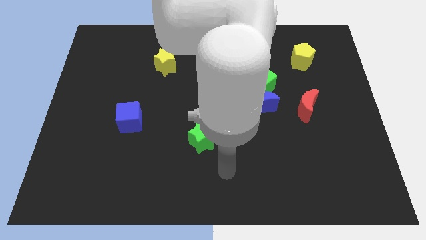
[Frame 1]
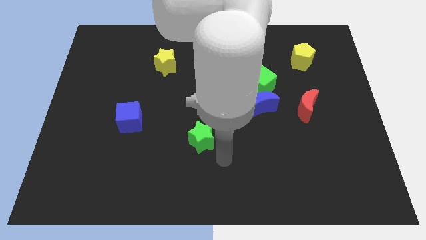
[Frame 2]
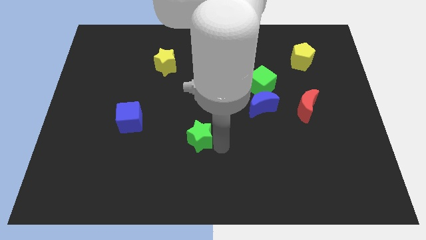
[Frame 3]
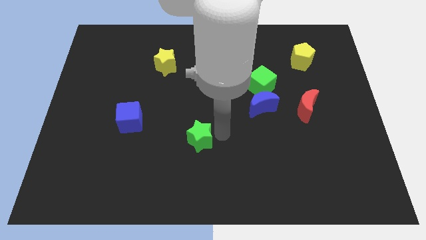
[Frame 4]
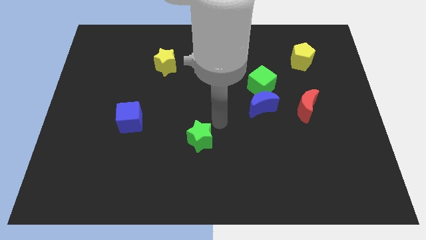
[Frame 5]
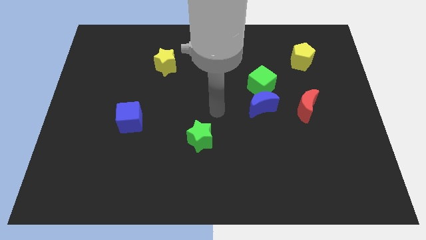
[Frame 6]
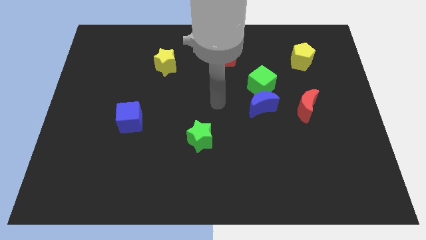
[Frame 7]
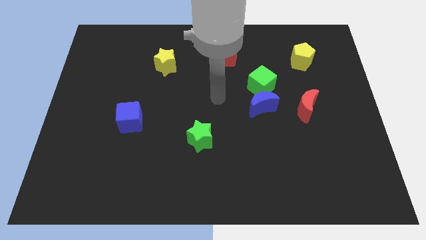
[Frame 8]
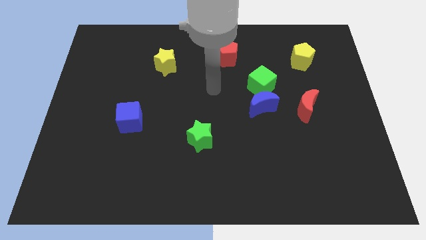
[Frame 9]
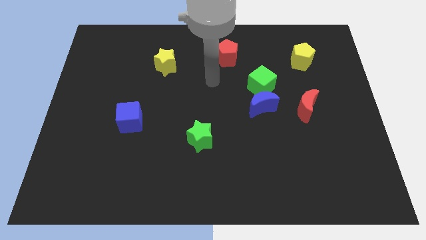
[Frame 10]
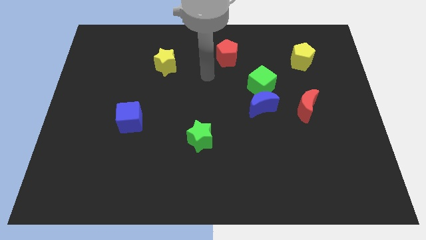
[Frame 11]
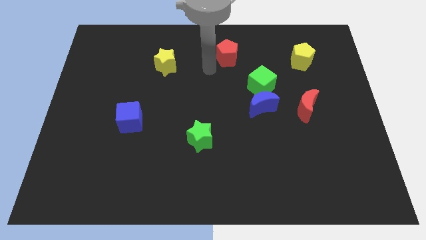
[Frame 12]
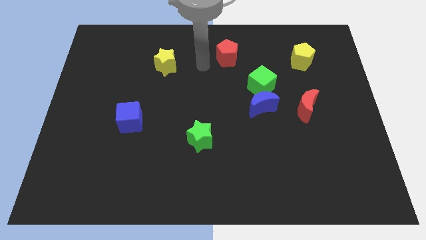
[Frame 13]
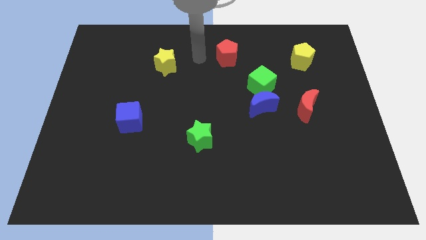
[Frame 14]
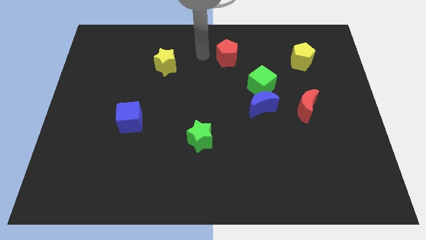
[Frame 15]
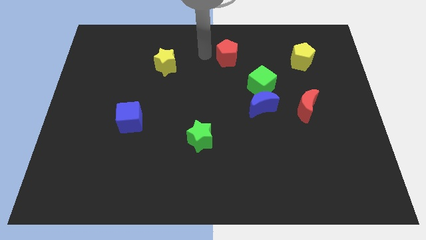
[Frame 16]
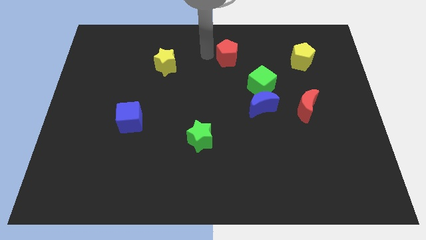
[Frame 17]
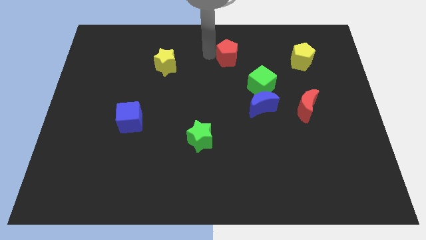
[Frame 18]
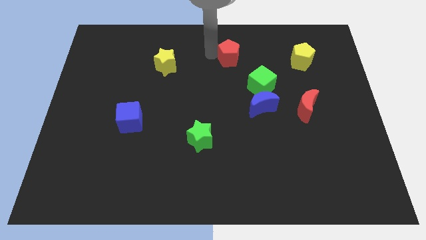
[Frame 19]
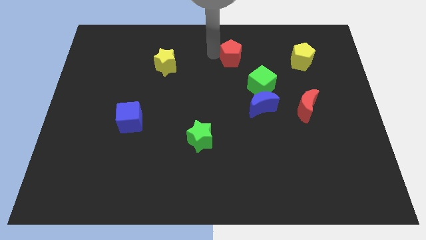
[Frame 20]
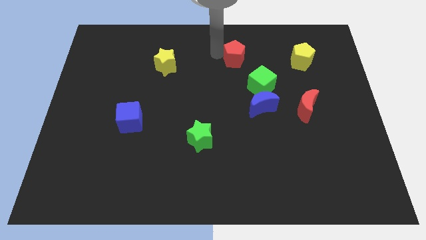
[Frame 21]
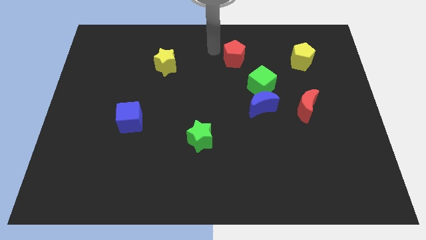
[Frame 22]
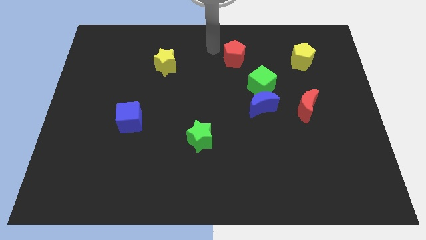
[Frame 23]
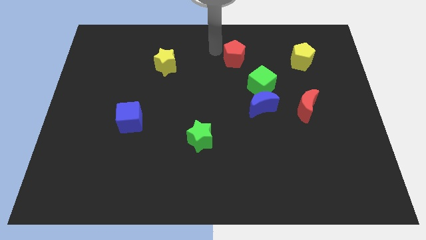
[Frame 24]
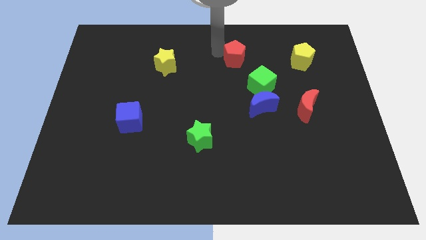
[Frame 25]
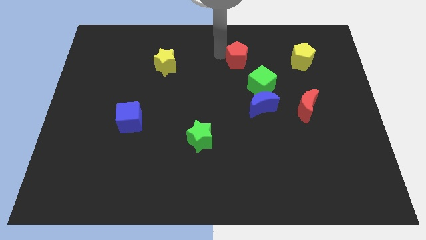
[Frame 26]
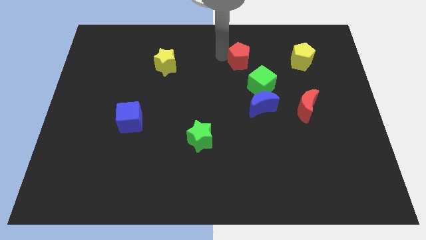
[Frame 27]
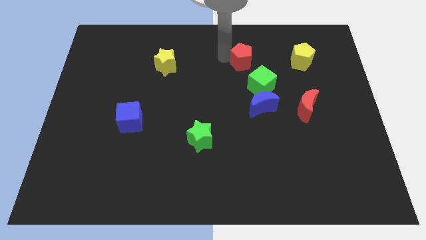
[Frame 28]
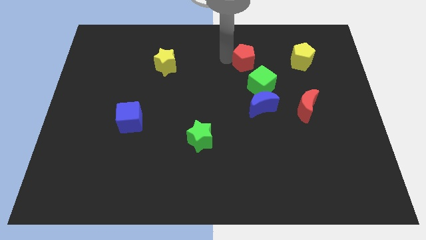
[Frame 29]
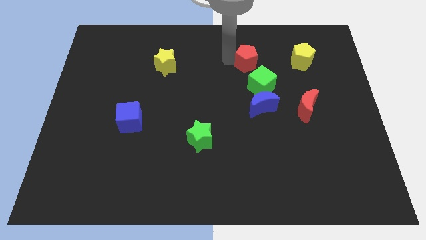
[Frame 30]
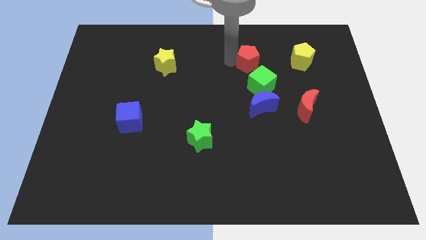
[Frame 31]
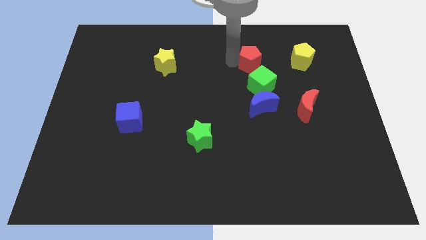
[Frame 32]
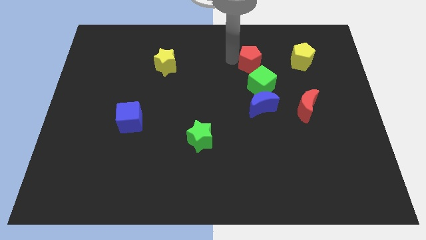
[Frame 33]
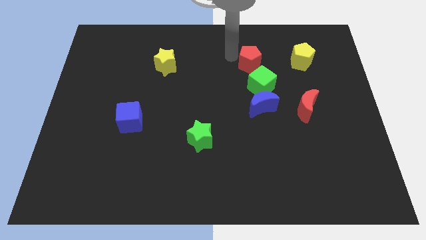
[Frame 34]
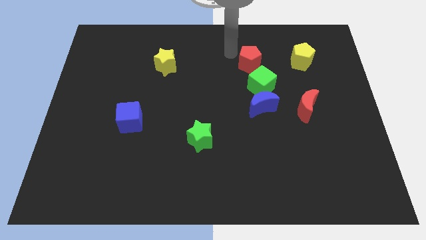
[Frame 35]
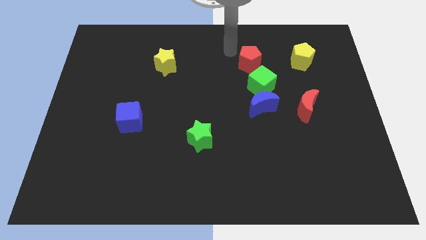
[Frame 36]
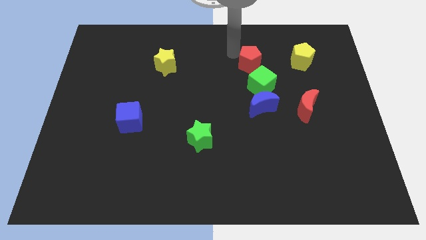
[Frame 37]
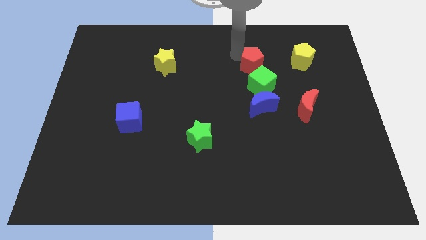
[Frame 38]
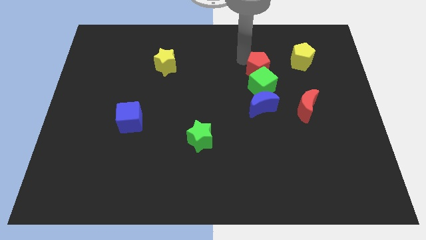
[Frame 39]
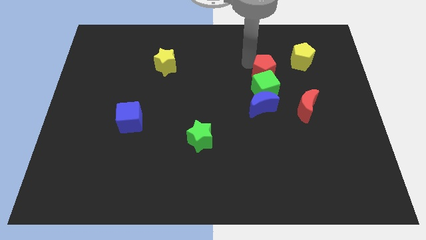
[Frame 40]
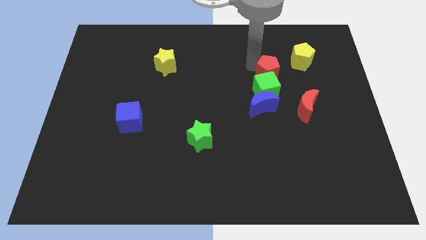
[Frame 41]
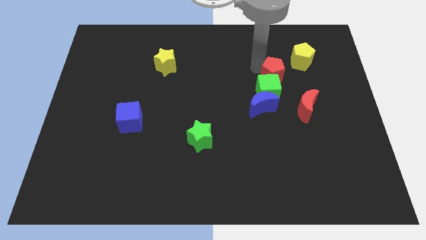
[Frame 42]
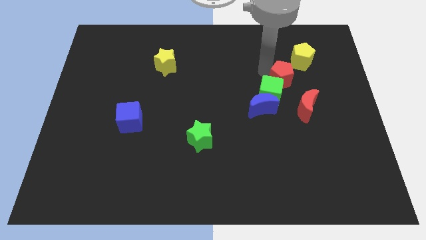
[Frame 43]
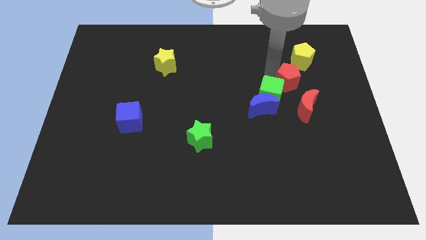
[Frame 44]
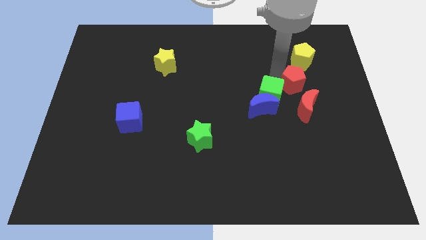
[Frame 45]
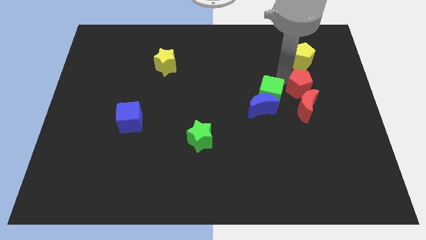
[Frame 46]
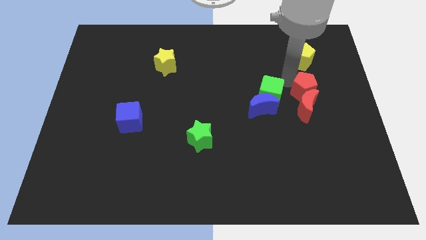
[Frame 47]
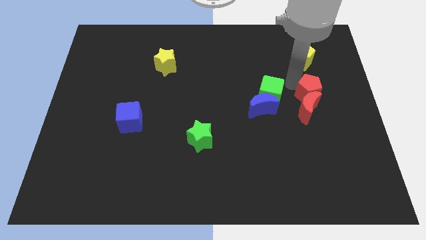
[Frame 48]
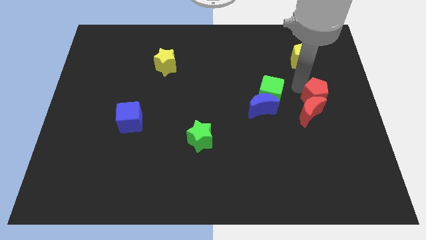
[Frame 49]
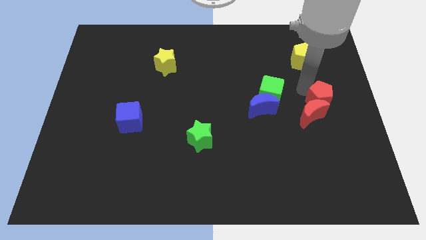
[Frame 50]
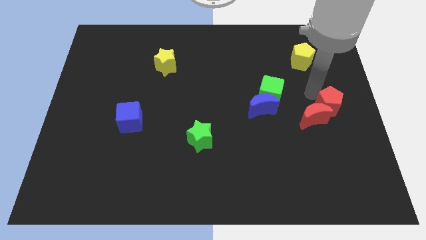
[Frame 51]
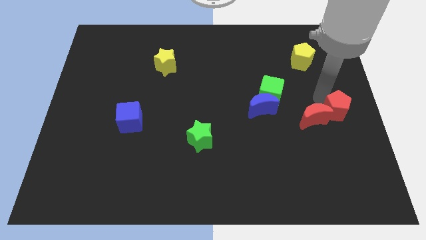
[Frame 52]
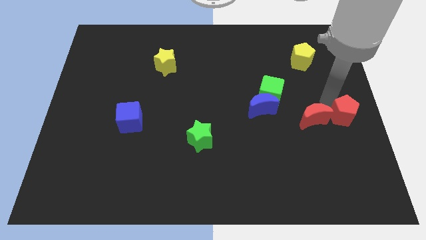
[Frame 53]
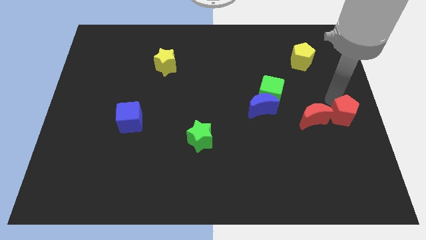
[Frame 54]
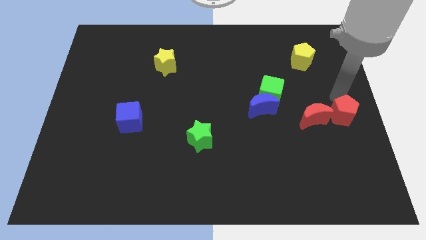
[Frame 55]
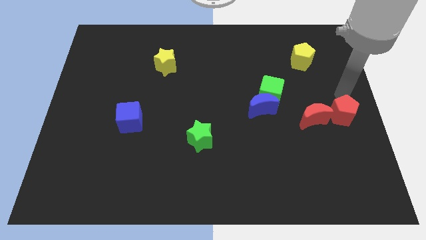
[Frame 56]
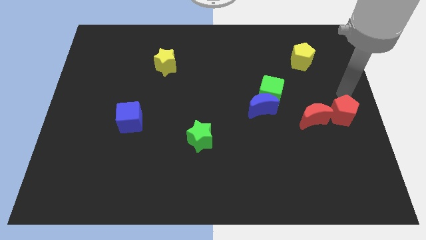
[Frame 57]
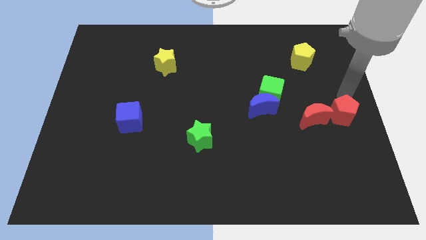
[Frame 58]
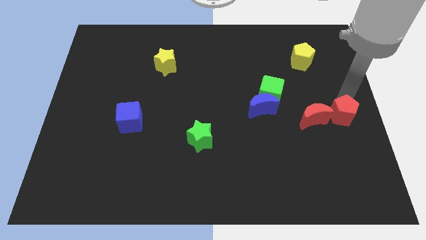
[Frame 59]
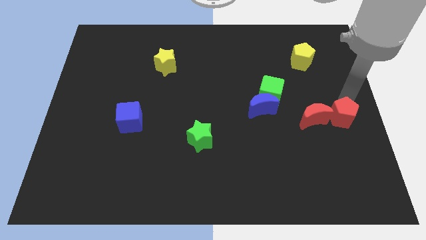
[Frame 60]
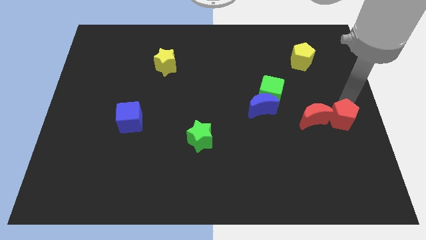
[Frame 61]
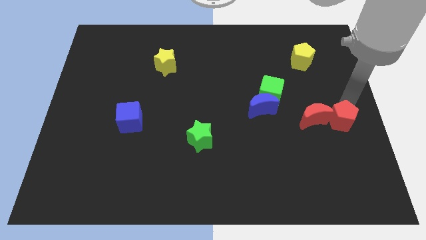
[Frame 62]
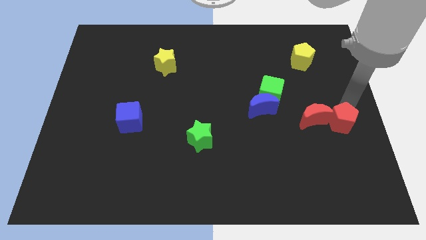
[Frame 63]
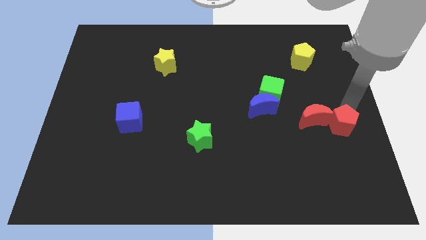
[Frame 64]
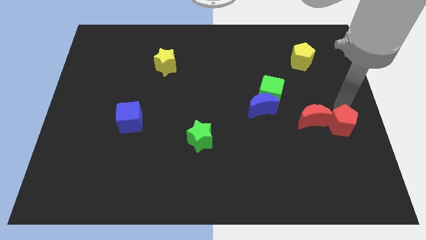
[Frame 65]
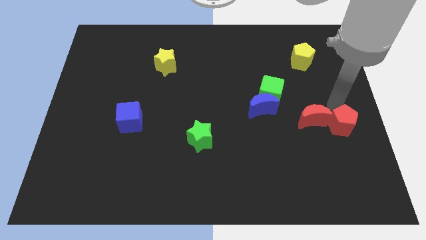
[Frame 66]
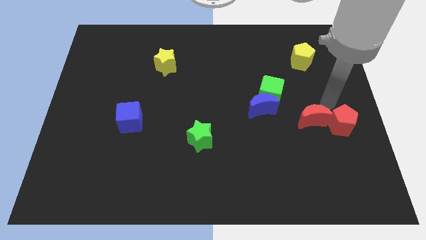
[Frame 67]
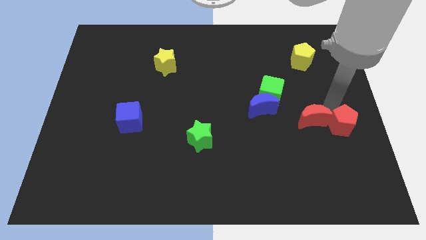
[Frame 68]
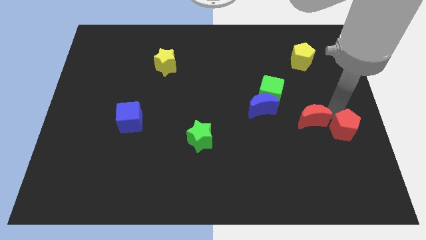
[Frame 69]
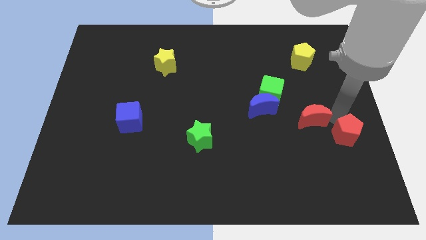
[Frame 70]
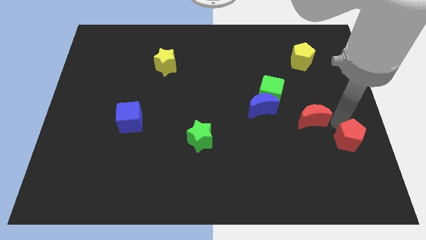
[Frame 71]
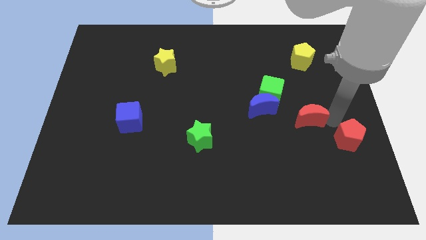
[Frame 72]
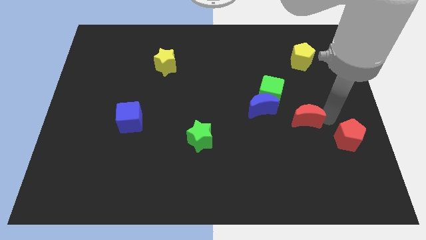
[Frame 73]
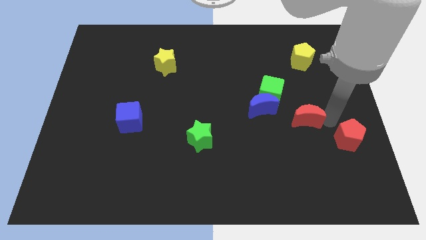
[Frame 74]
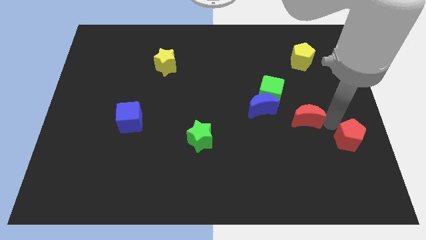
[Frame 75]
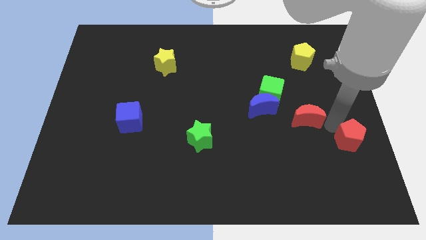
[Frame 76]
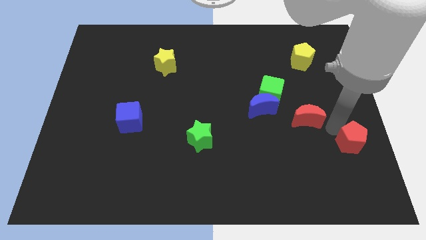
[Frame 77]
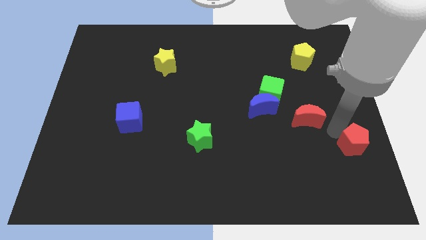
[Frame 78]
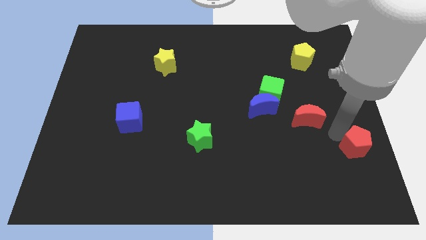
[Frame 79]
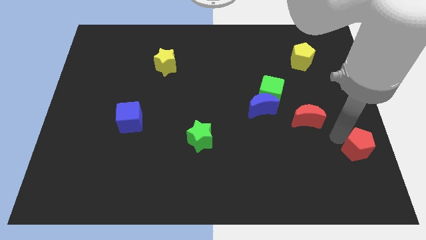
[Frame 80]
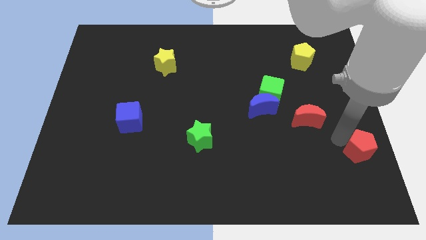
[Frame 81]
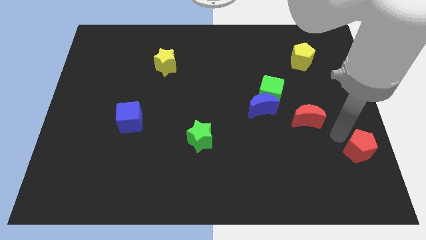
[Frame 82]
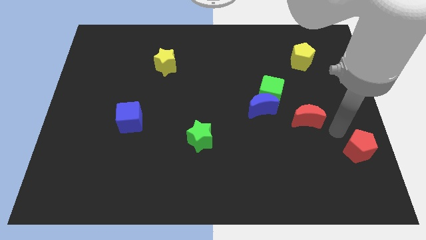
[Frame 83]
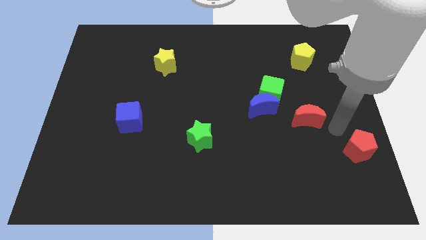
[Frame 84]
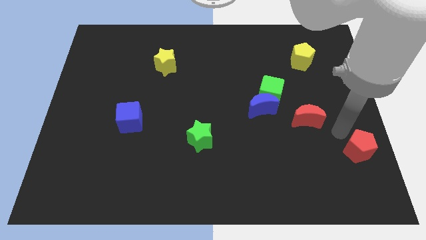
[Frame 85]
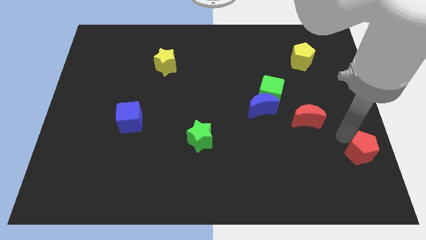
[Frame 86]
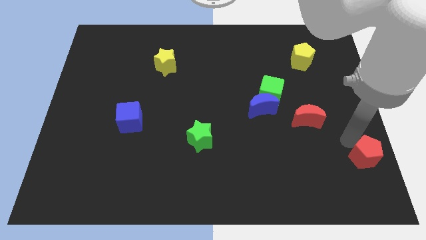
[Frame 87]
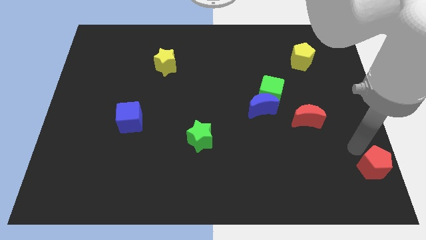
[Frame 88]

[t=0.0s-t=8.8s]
push the red pentagon to the lower right corner
